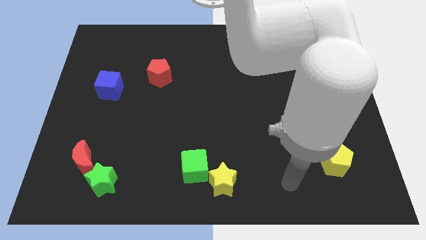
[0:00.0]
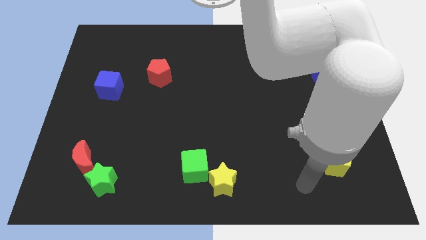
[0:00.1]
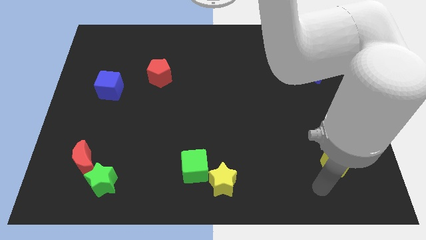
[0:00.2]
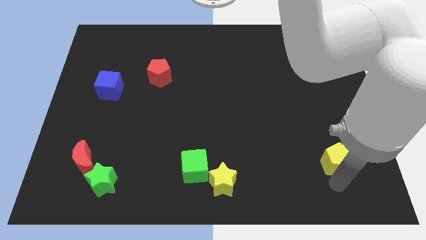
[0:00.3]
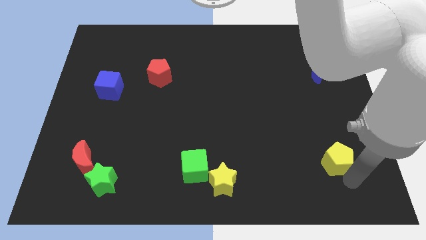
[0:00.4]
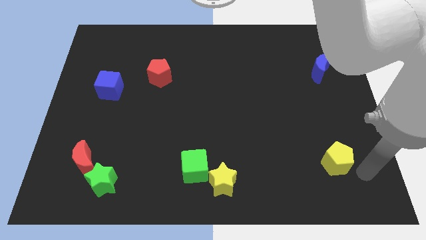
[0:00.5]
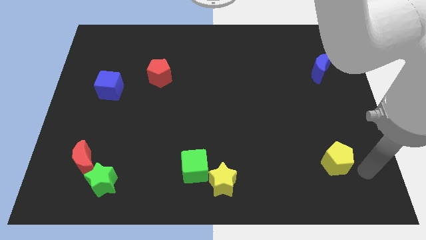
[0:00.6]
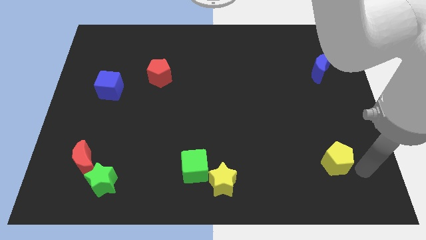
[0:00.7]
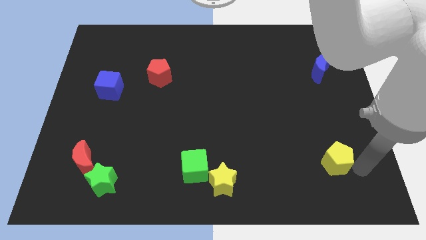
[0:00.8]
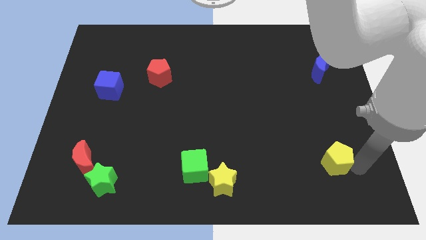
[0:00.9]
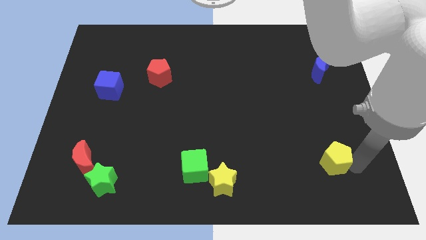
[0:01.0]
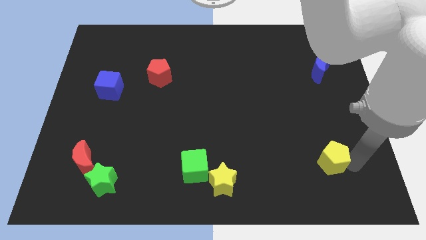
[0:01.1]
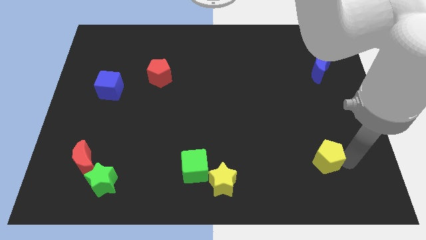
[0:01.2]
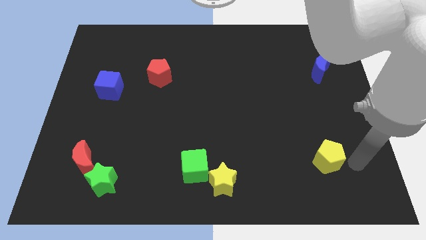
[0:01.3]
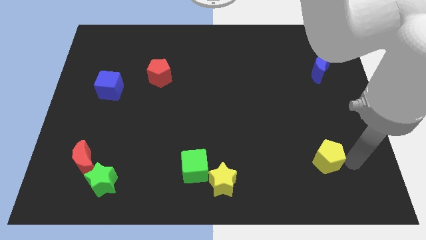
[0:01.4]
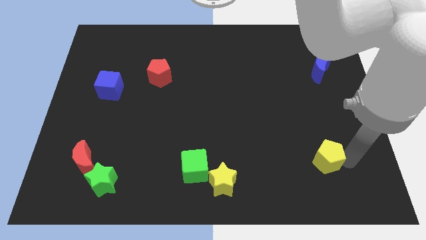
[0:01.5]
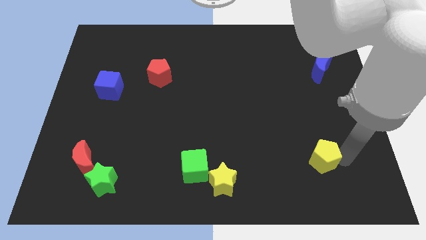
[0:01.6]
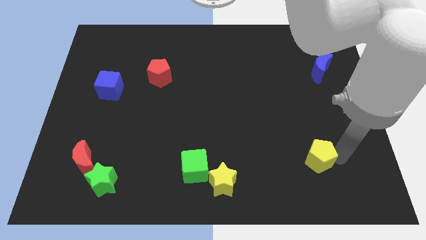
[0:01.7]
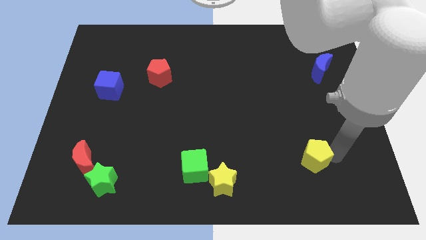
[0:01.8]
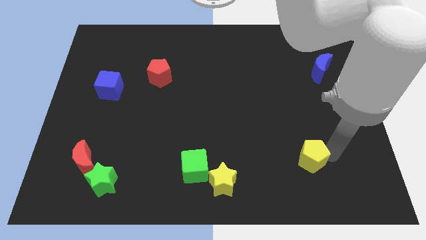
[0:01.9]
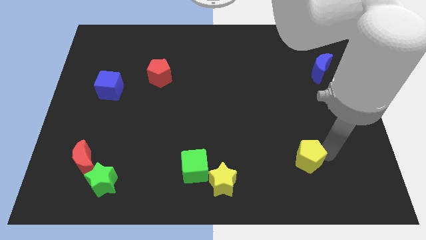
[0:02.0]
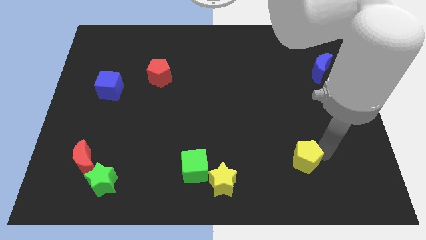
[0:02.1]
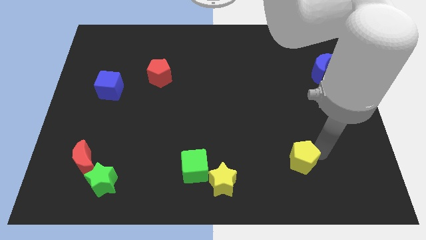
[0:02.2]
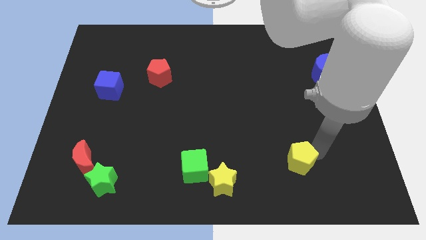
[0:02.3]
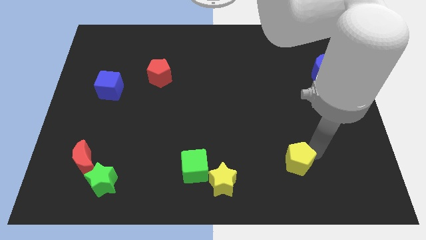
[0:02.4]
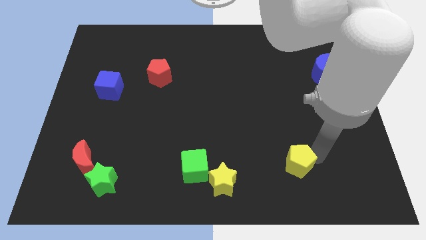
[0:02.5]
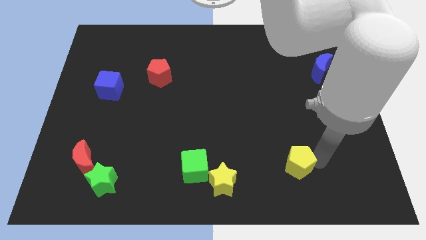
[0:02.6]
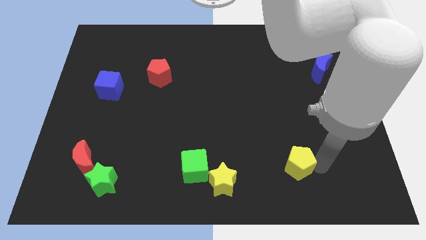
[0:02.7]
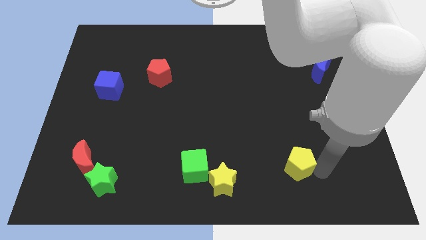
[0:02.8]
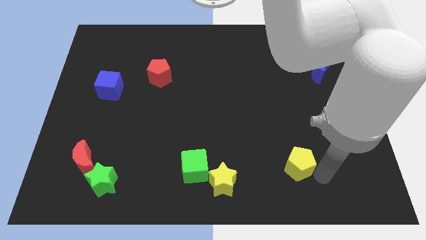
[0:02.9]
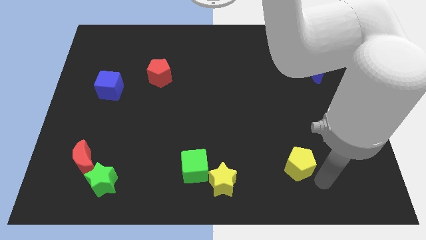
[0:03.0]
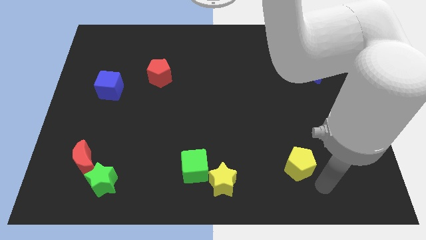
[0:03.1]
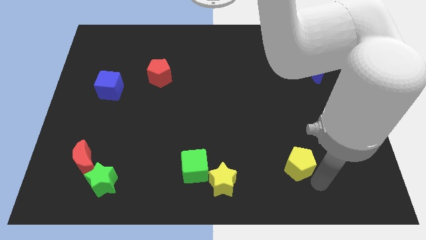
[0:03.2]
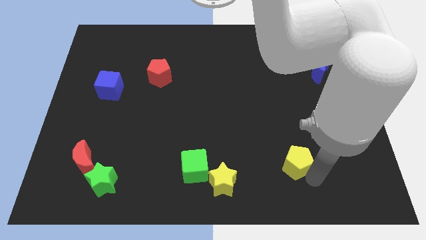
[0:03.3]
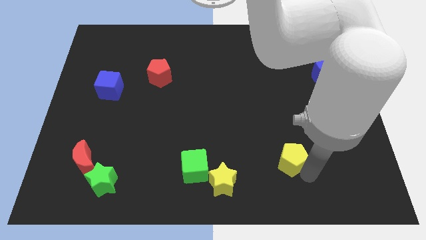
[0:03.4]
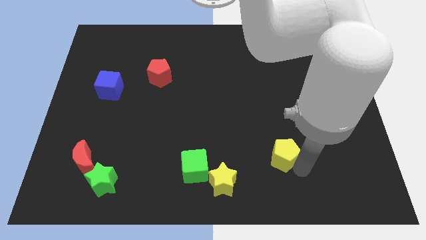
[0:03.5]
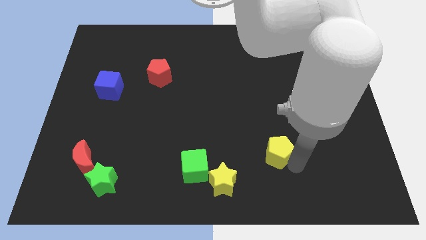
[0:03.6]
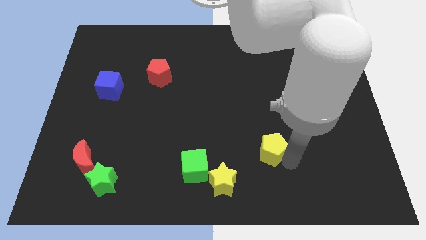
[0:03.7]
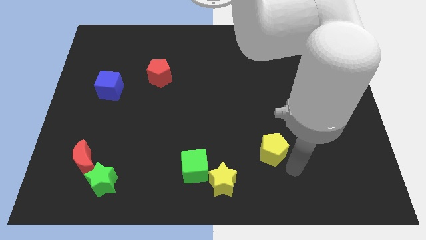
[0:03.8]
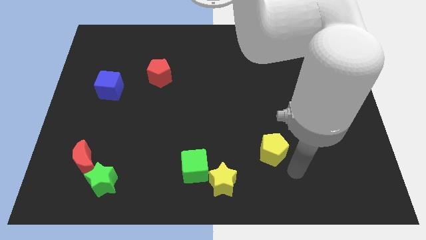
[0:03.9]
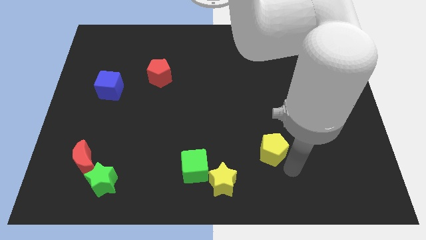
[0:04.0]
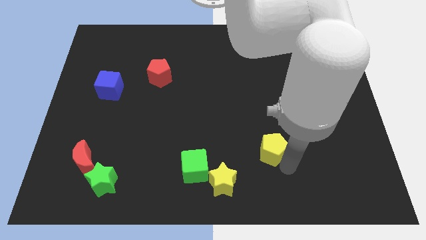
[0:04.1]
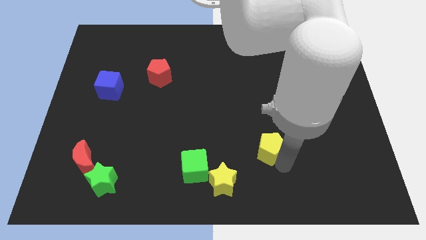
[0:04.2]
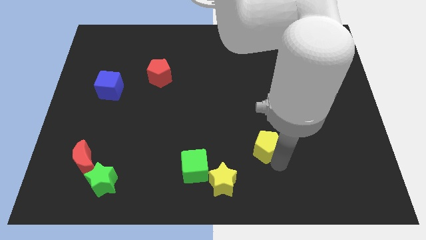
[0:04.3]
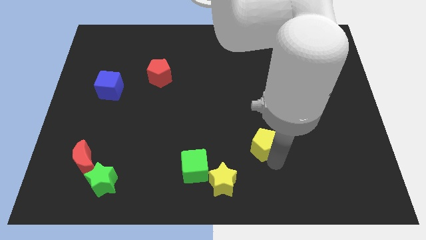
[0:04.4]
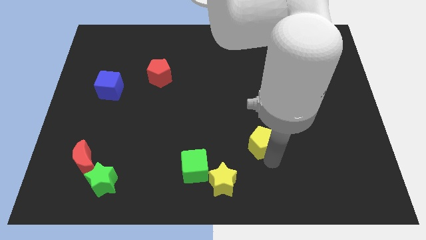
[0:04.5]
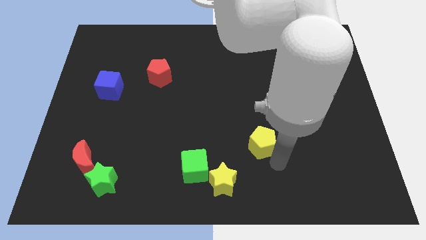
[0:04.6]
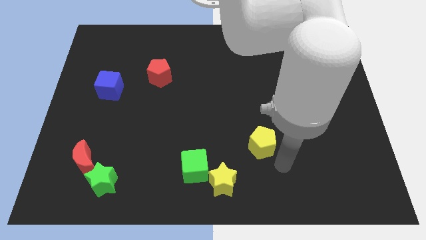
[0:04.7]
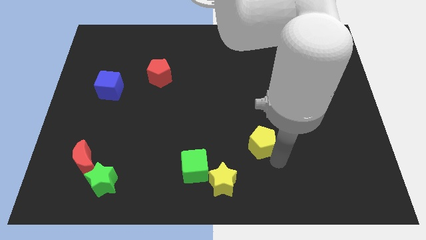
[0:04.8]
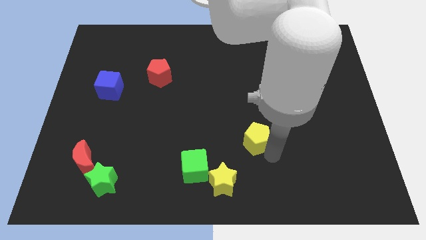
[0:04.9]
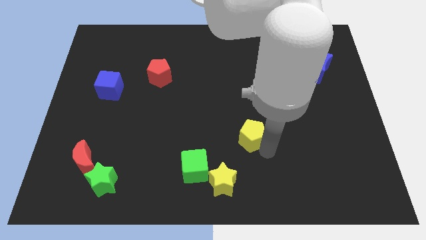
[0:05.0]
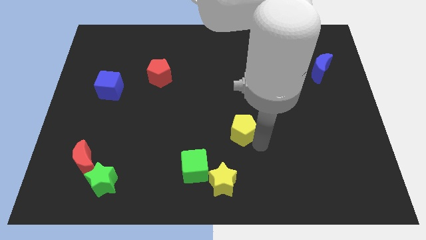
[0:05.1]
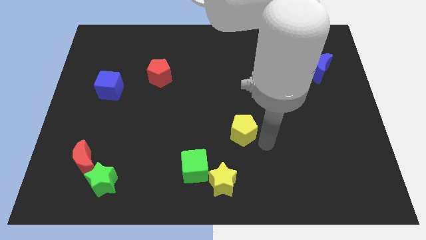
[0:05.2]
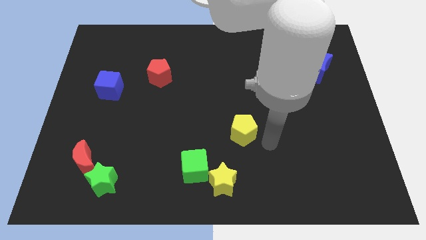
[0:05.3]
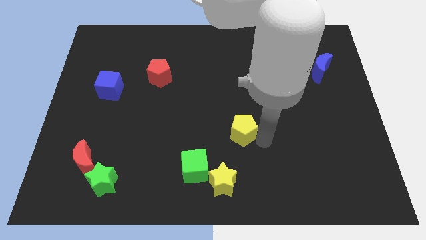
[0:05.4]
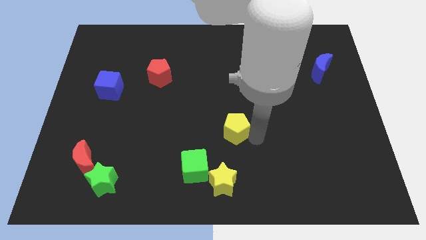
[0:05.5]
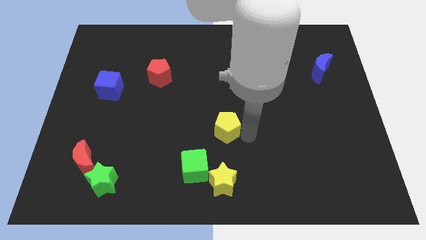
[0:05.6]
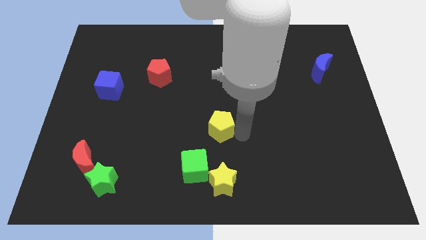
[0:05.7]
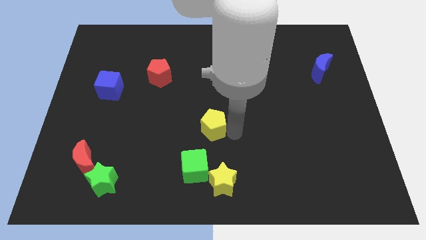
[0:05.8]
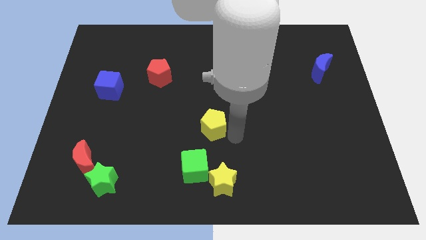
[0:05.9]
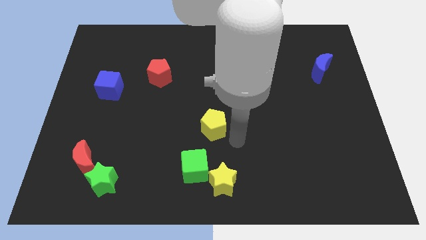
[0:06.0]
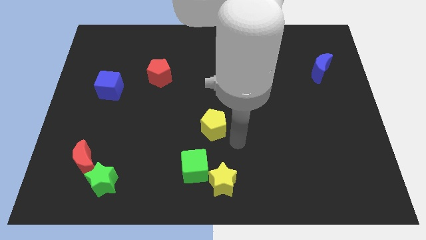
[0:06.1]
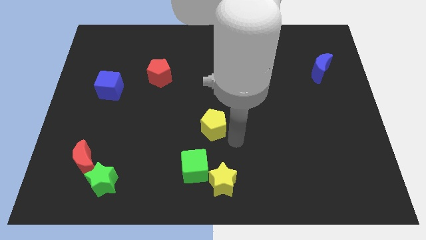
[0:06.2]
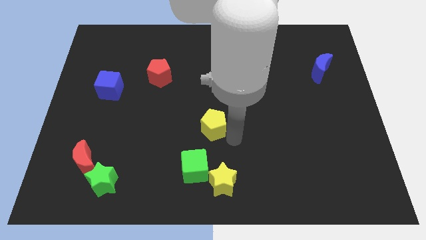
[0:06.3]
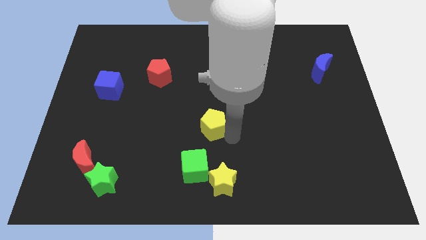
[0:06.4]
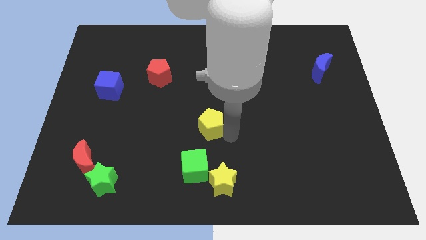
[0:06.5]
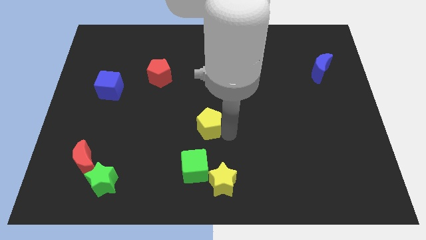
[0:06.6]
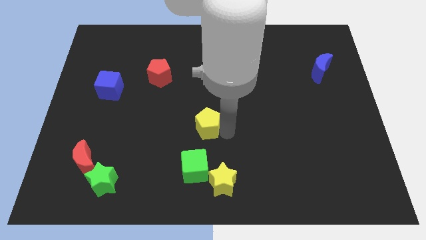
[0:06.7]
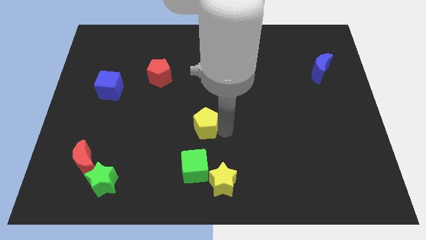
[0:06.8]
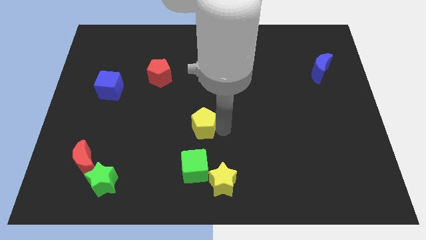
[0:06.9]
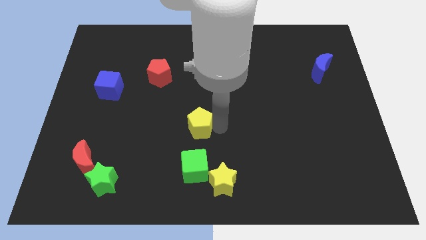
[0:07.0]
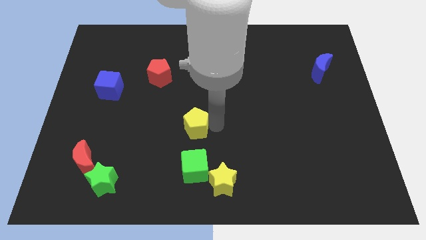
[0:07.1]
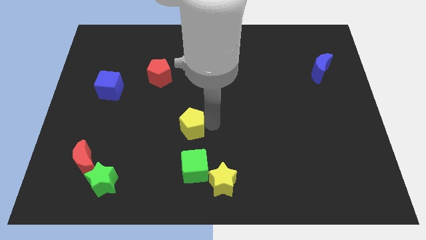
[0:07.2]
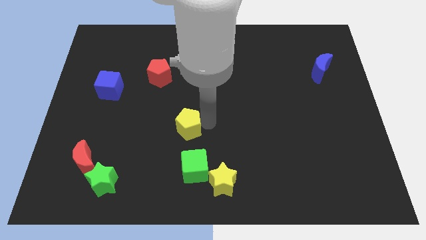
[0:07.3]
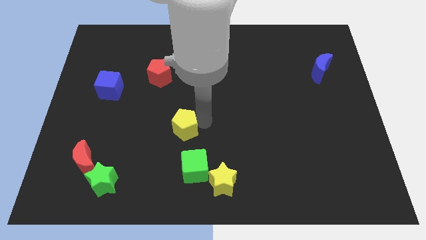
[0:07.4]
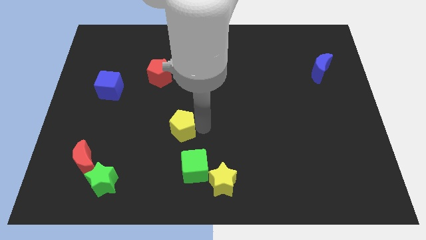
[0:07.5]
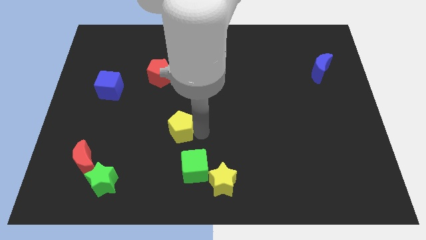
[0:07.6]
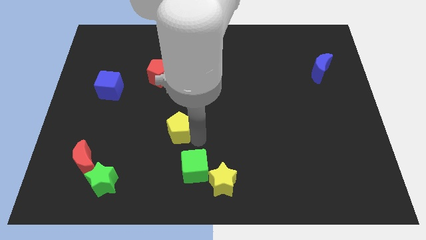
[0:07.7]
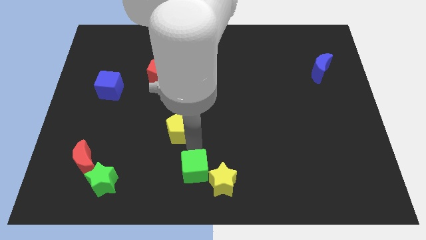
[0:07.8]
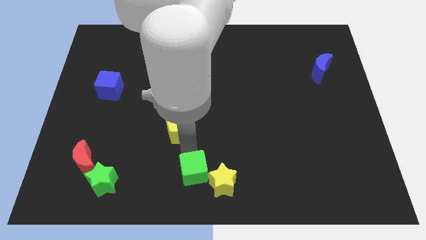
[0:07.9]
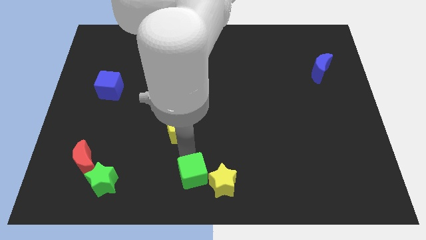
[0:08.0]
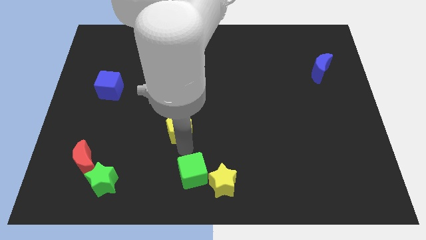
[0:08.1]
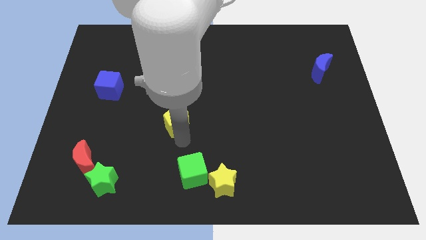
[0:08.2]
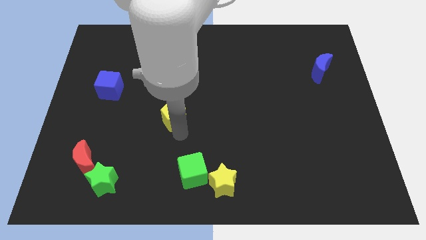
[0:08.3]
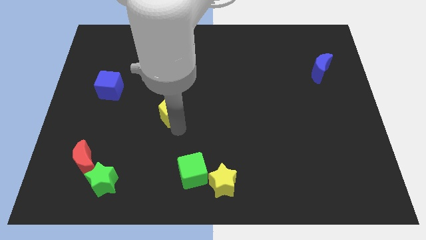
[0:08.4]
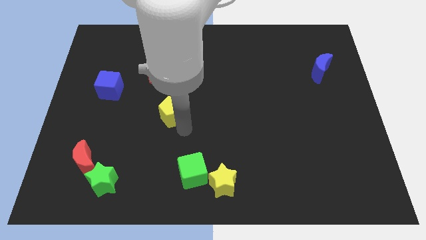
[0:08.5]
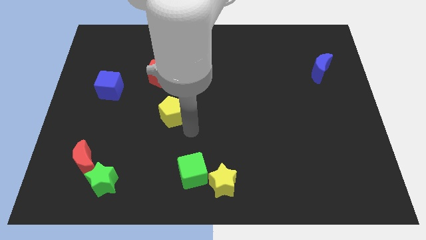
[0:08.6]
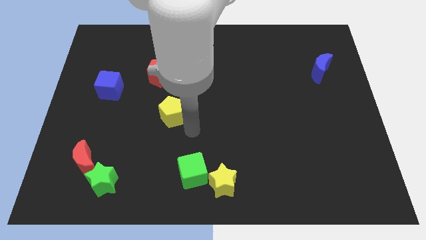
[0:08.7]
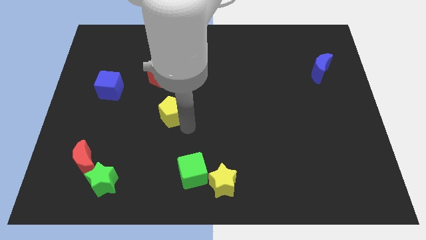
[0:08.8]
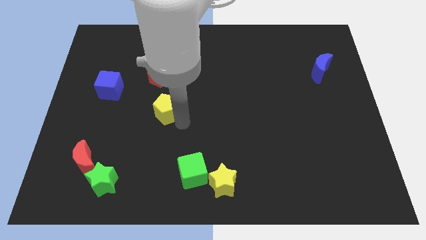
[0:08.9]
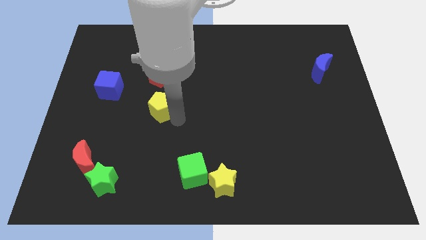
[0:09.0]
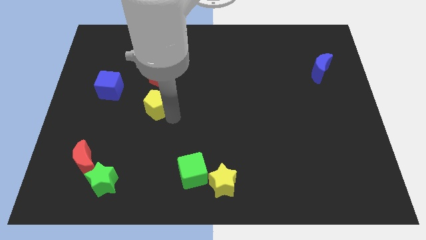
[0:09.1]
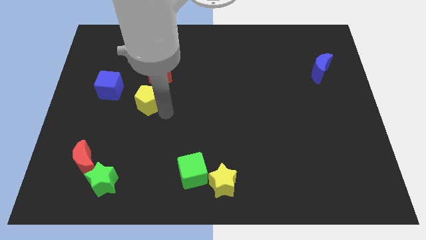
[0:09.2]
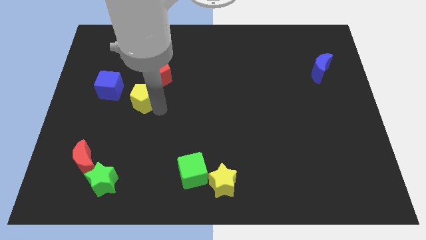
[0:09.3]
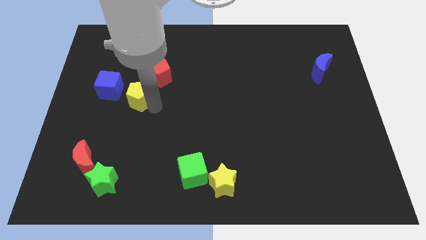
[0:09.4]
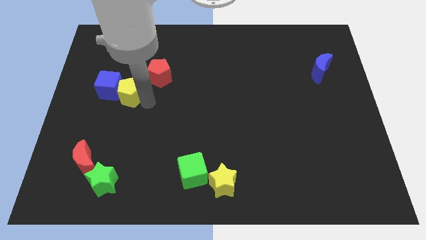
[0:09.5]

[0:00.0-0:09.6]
put the yellow pentagon towards the blue cube
